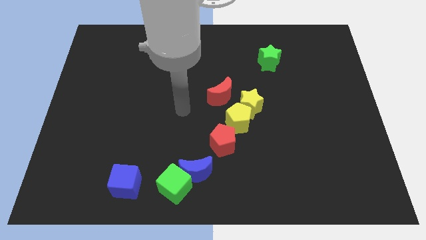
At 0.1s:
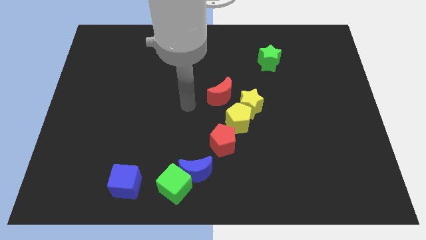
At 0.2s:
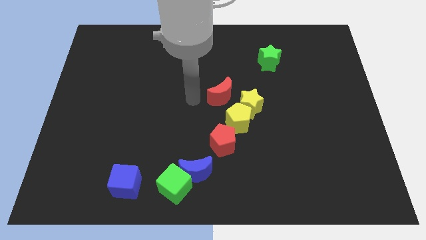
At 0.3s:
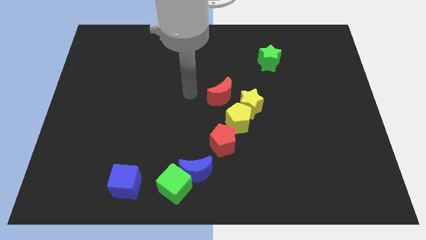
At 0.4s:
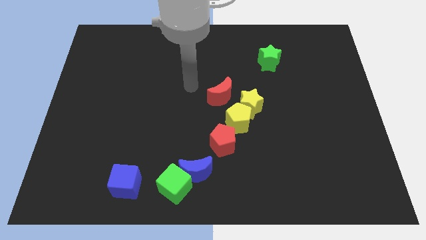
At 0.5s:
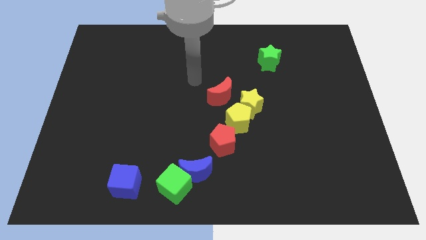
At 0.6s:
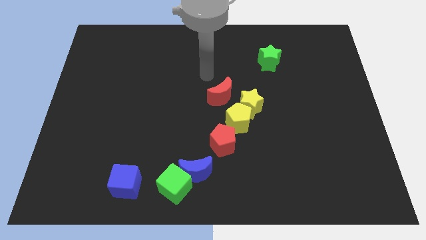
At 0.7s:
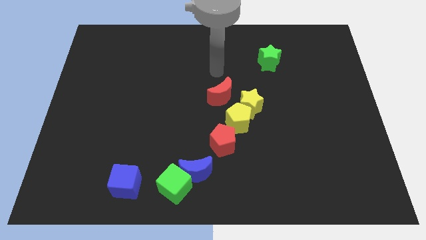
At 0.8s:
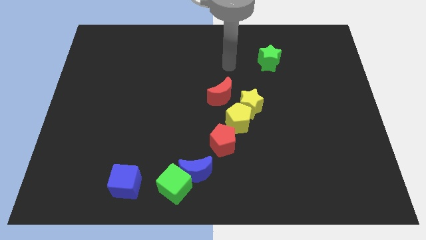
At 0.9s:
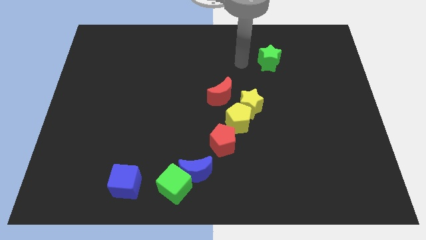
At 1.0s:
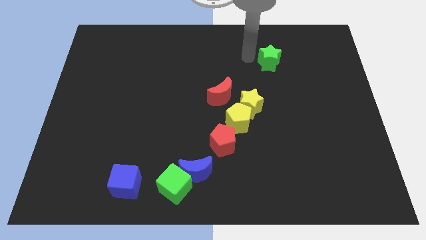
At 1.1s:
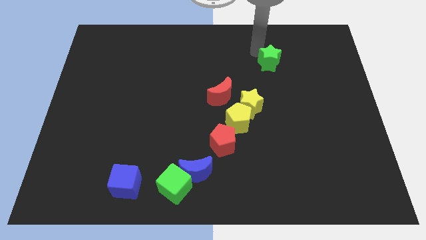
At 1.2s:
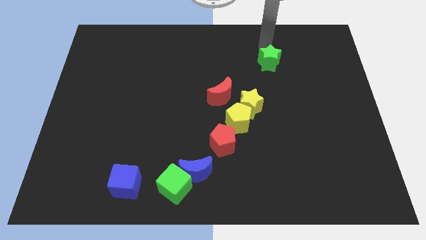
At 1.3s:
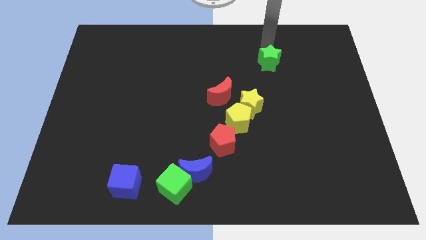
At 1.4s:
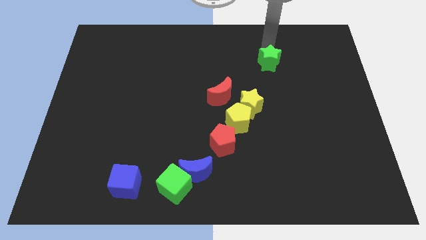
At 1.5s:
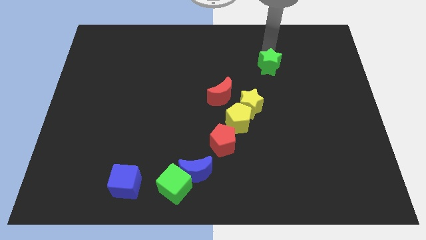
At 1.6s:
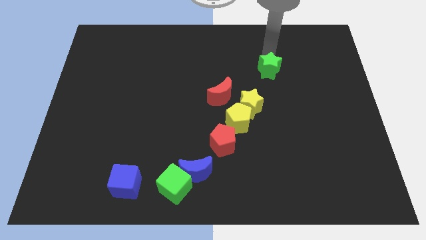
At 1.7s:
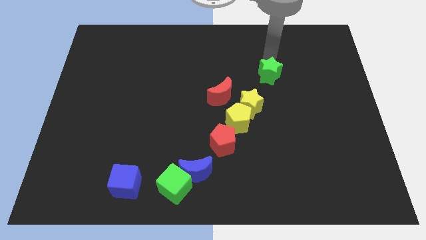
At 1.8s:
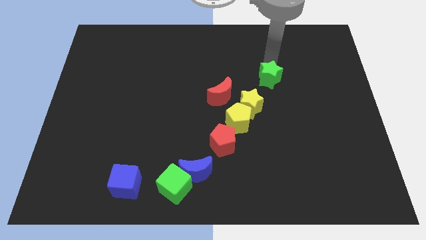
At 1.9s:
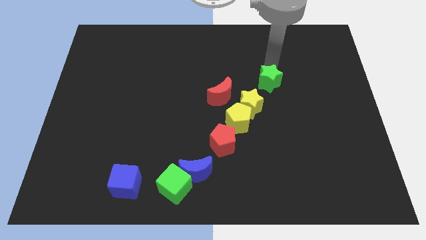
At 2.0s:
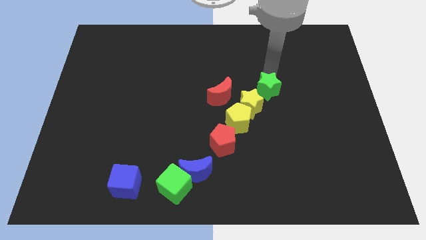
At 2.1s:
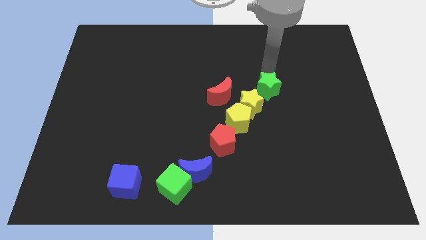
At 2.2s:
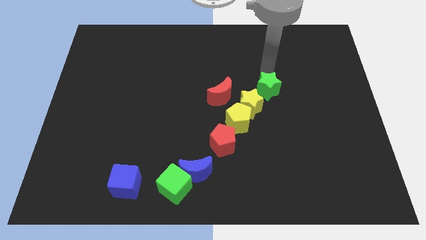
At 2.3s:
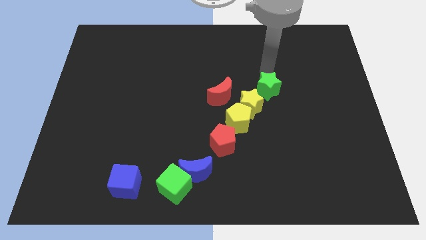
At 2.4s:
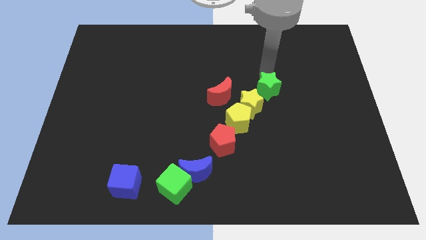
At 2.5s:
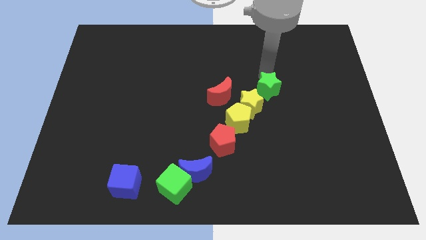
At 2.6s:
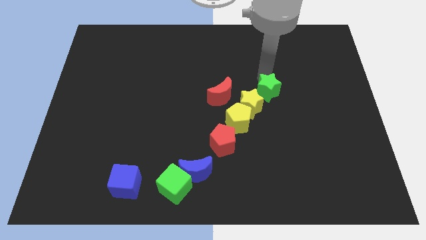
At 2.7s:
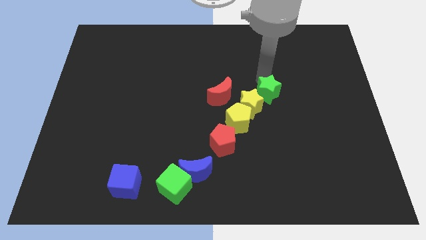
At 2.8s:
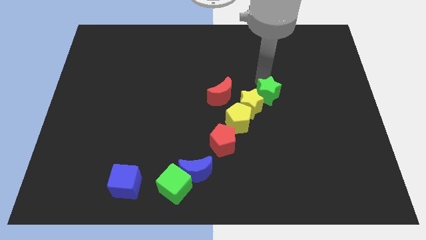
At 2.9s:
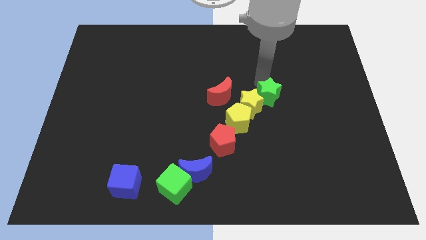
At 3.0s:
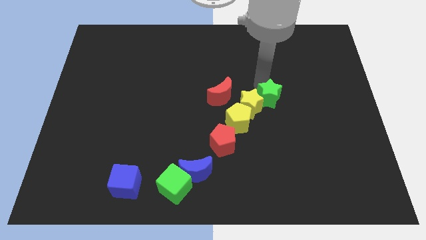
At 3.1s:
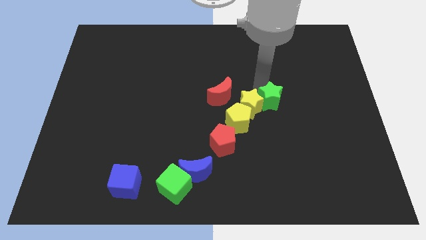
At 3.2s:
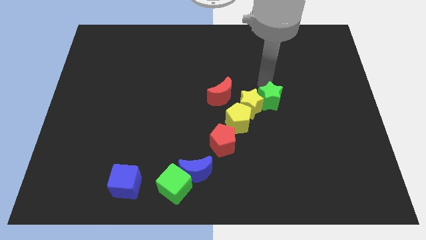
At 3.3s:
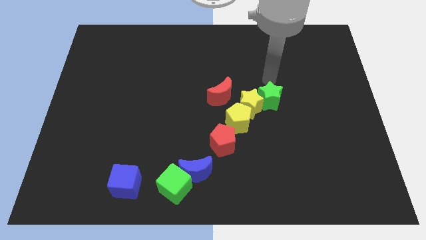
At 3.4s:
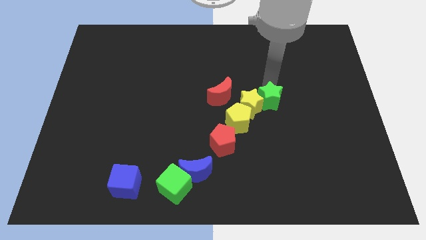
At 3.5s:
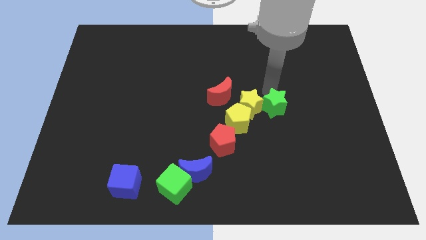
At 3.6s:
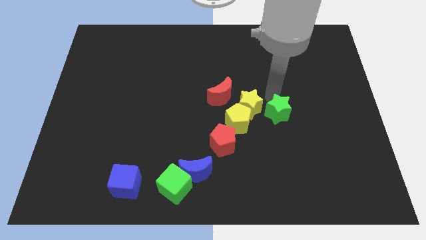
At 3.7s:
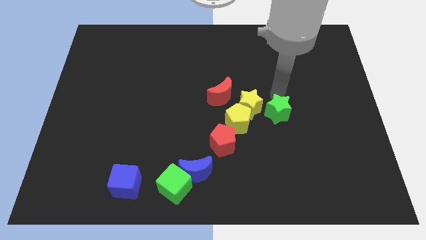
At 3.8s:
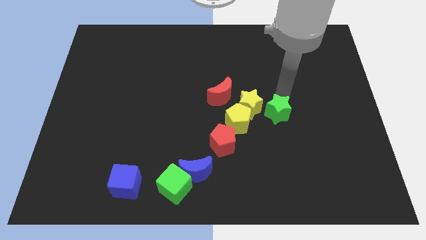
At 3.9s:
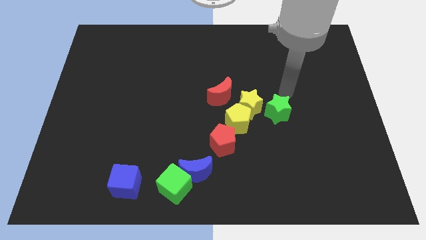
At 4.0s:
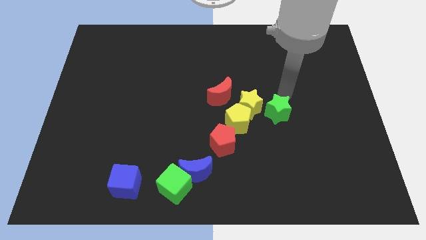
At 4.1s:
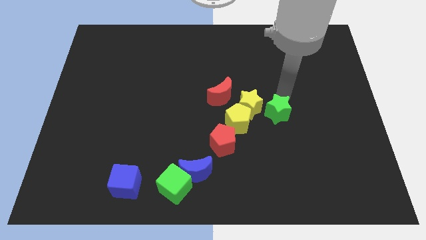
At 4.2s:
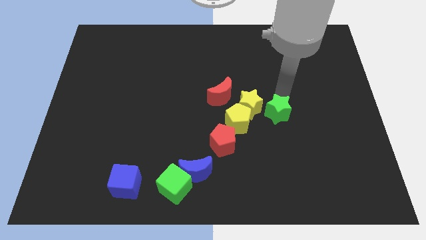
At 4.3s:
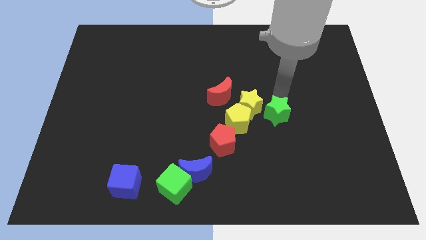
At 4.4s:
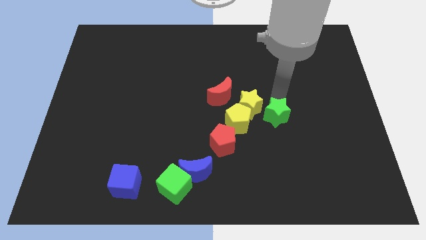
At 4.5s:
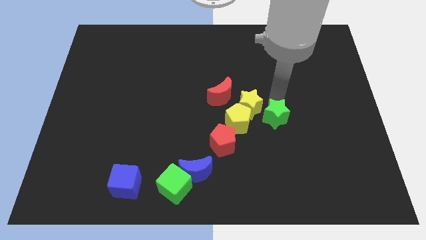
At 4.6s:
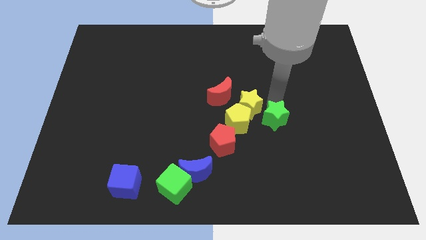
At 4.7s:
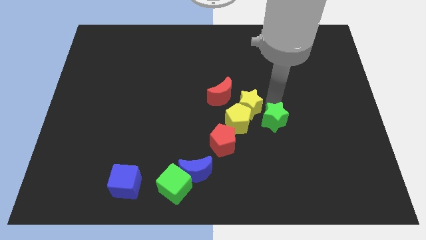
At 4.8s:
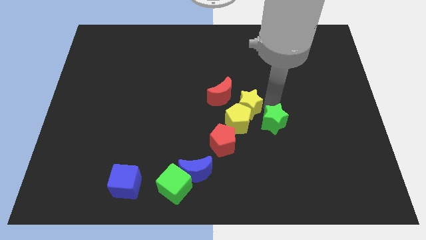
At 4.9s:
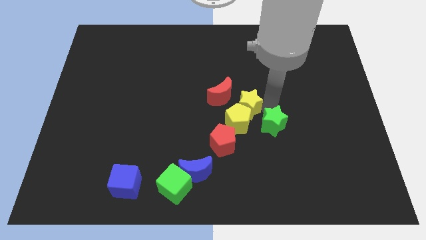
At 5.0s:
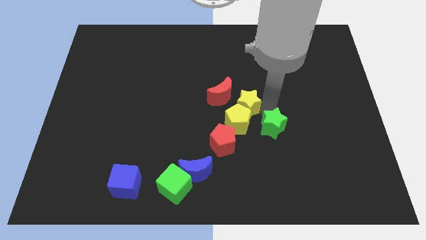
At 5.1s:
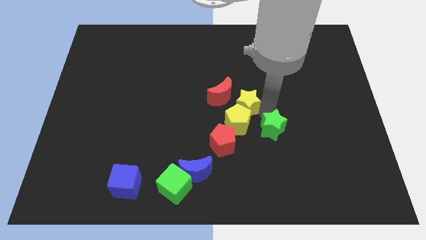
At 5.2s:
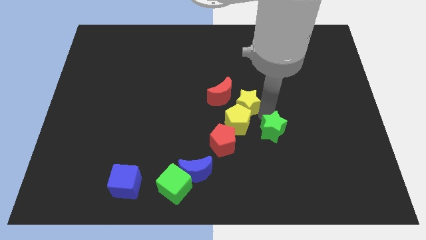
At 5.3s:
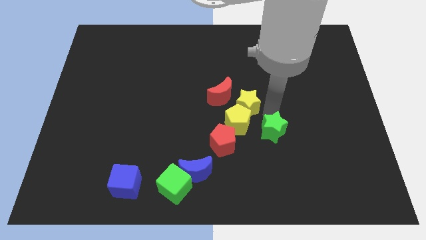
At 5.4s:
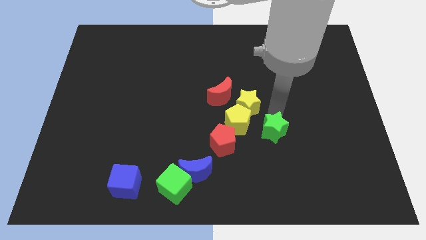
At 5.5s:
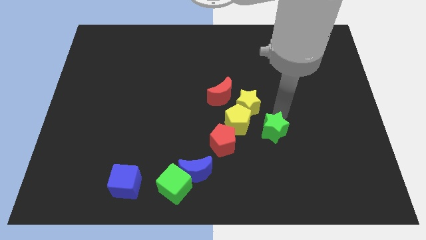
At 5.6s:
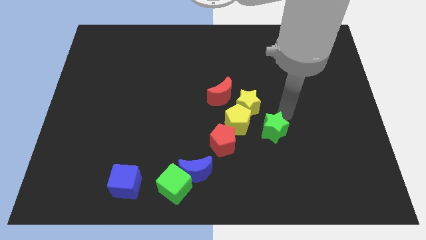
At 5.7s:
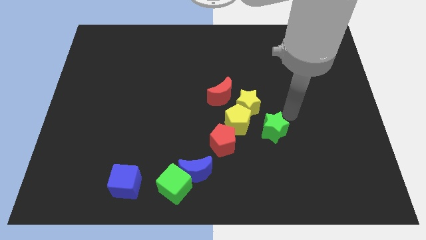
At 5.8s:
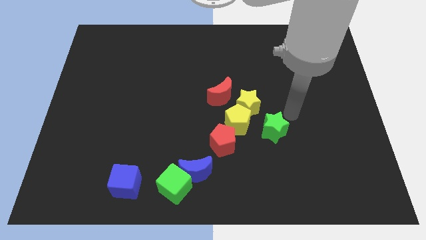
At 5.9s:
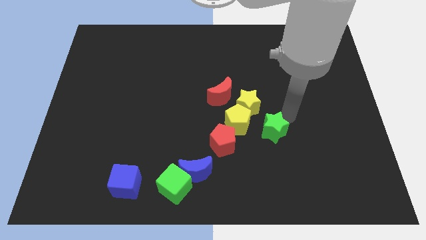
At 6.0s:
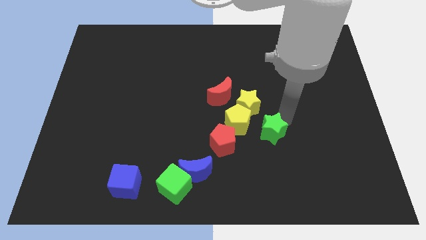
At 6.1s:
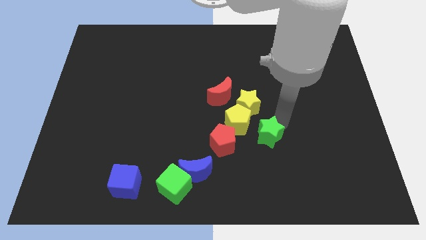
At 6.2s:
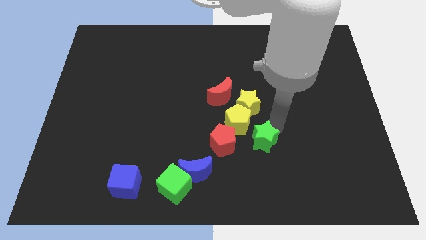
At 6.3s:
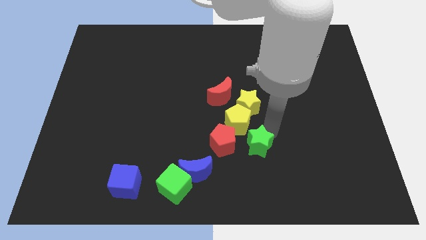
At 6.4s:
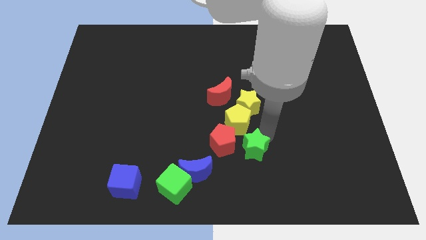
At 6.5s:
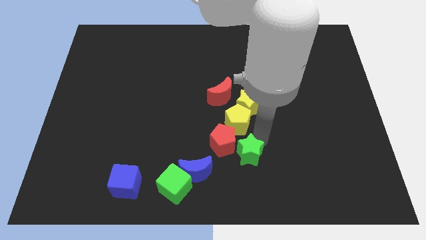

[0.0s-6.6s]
slide the green star to the right of the blue moon
